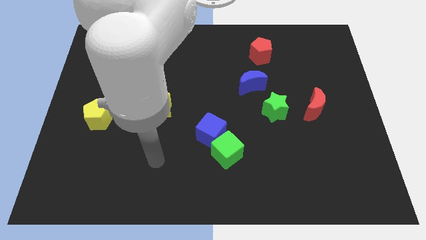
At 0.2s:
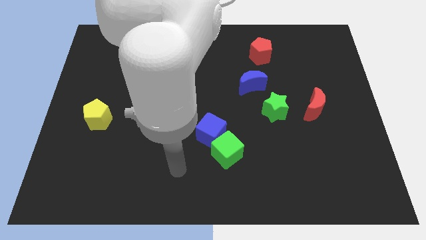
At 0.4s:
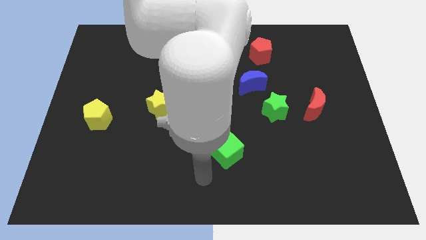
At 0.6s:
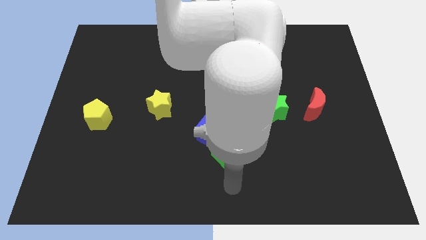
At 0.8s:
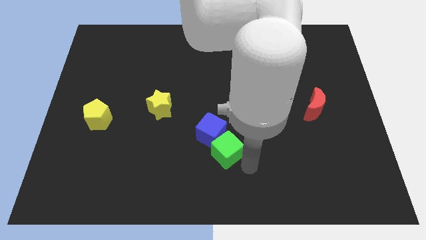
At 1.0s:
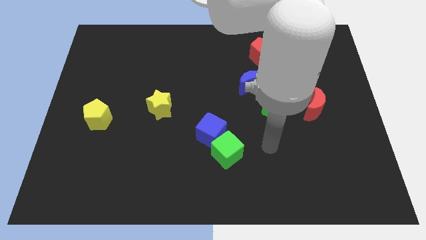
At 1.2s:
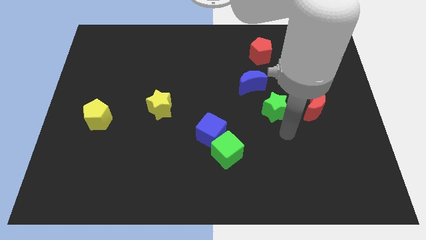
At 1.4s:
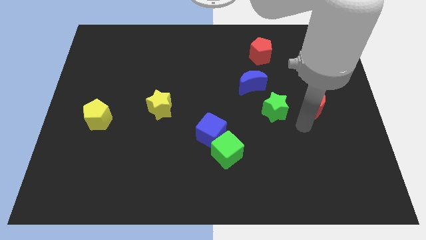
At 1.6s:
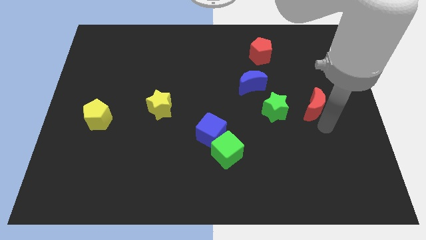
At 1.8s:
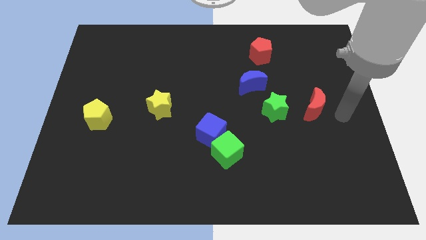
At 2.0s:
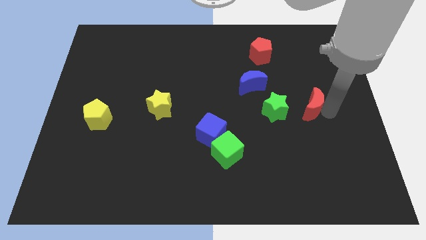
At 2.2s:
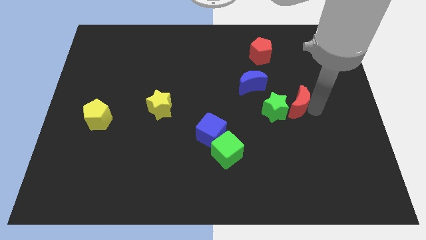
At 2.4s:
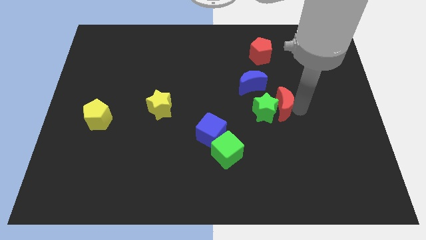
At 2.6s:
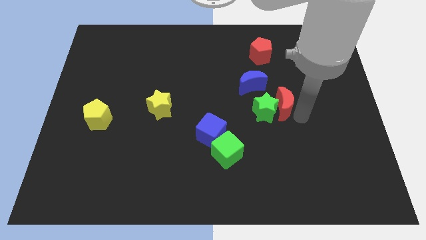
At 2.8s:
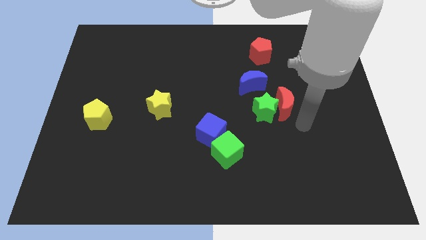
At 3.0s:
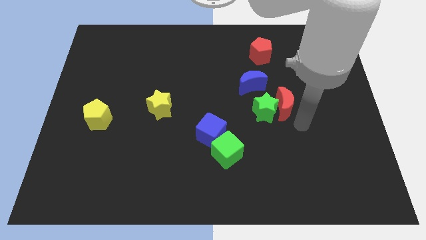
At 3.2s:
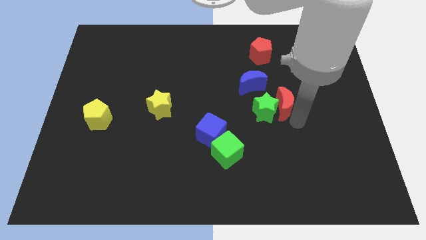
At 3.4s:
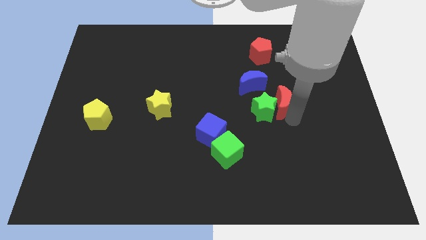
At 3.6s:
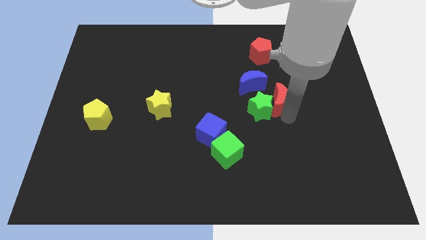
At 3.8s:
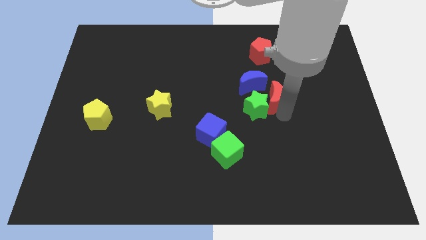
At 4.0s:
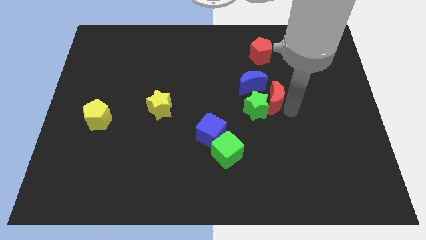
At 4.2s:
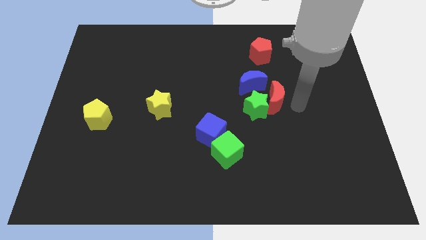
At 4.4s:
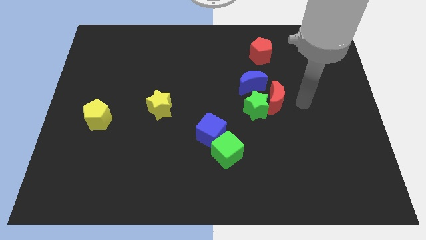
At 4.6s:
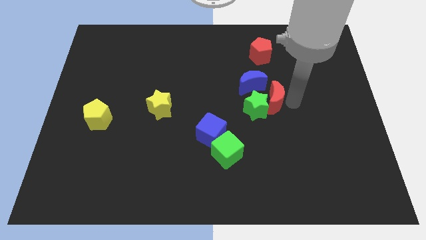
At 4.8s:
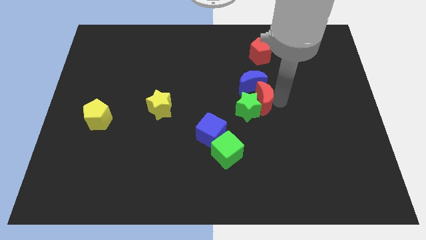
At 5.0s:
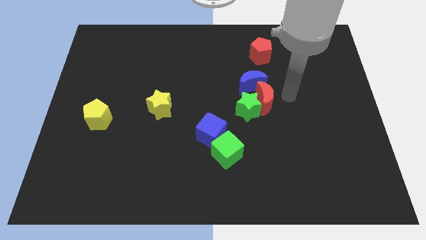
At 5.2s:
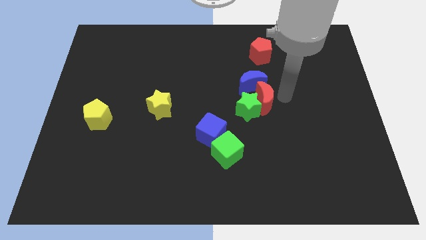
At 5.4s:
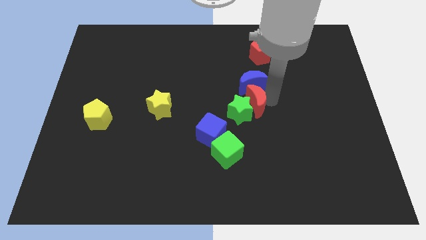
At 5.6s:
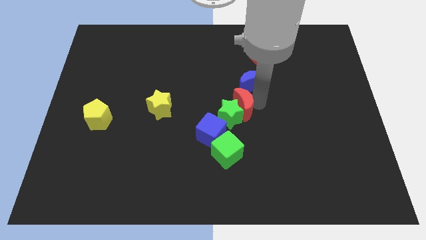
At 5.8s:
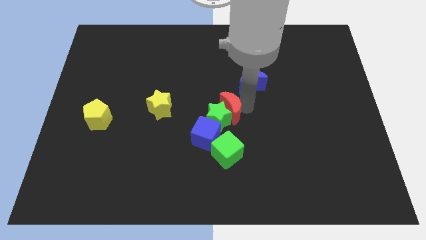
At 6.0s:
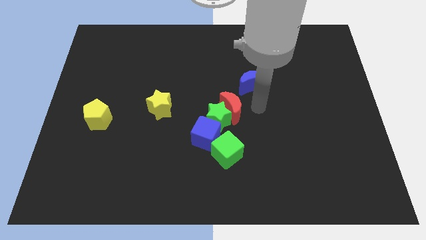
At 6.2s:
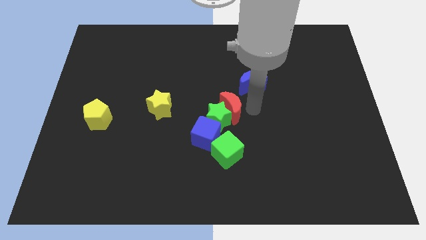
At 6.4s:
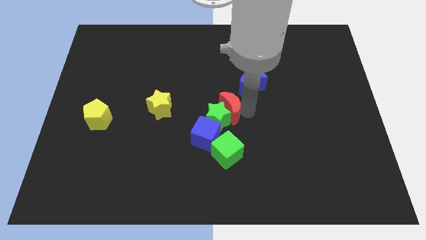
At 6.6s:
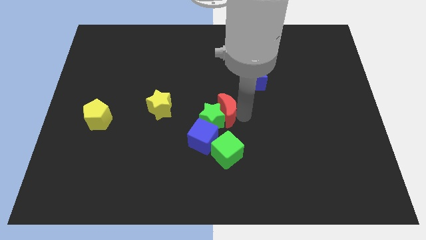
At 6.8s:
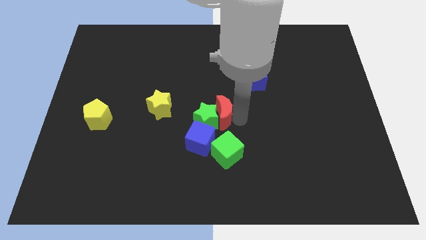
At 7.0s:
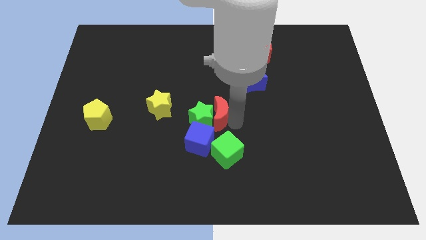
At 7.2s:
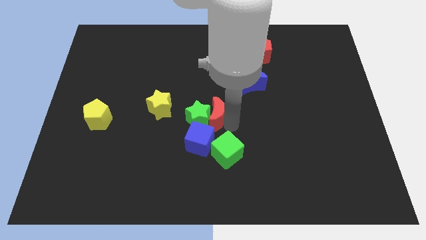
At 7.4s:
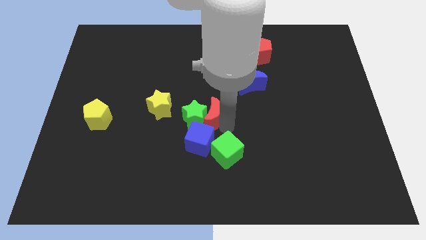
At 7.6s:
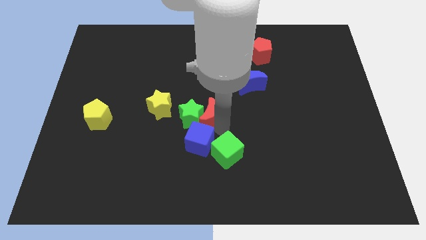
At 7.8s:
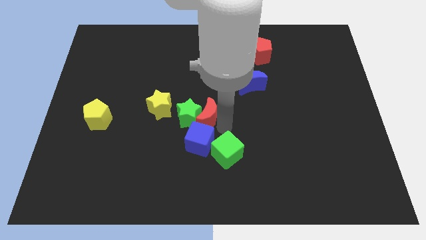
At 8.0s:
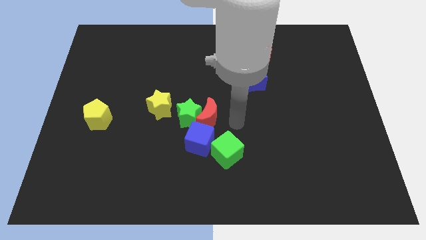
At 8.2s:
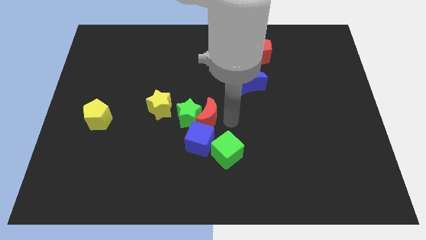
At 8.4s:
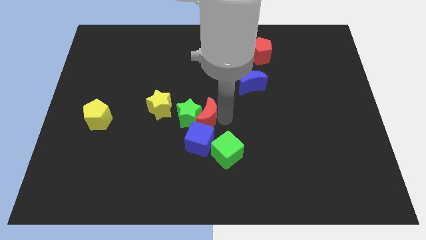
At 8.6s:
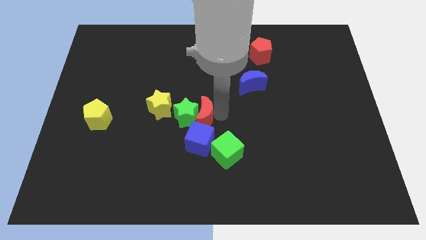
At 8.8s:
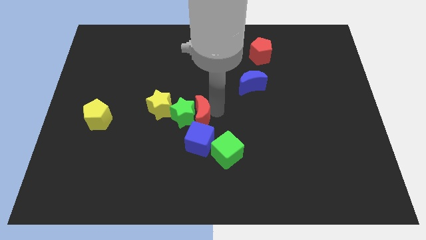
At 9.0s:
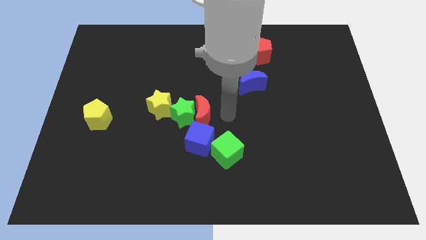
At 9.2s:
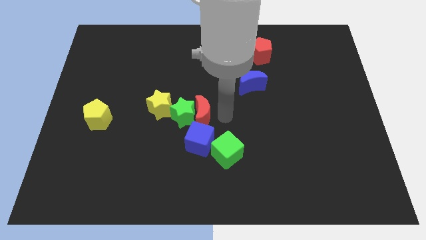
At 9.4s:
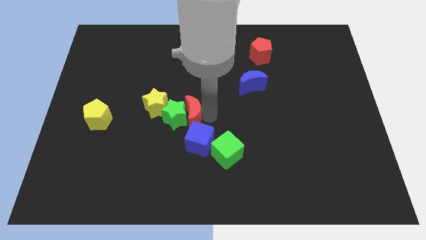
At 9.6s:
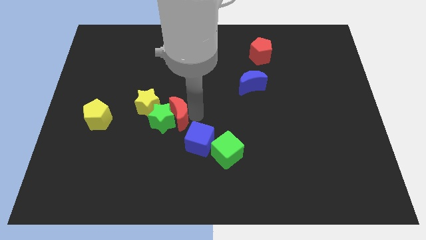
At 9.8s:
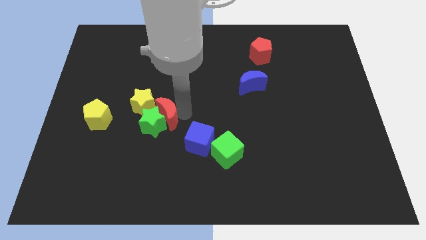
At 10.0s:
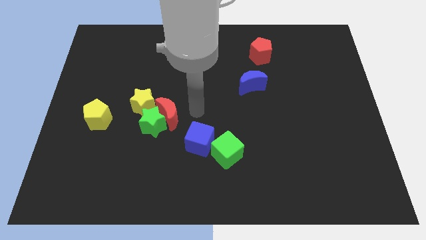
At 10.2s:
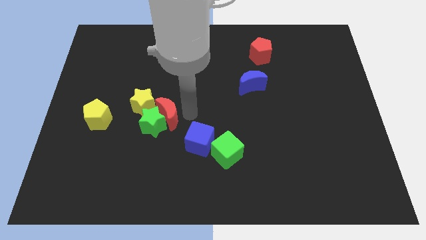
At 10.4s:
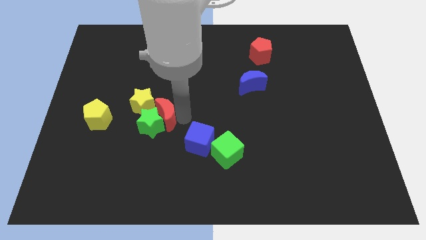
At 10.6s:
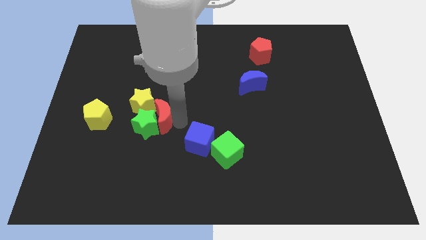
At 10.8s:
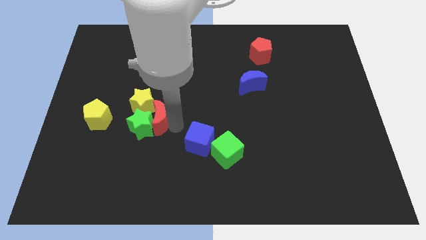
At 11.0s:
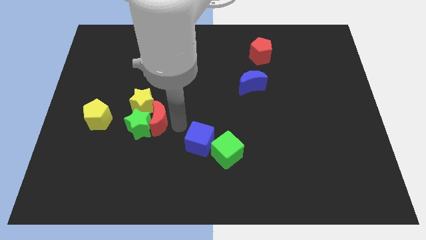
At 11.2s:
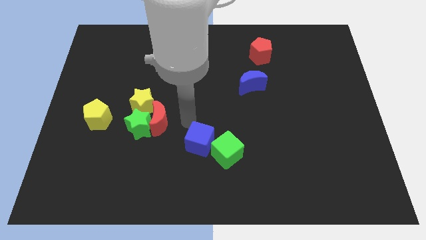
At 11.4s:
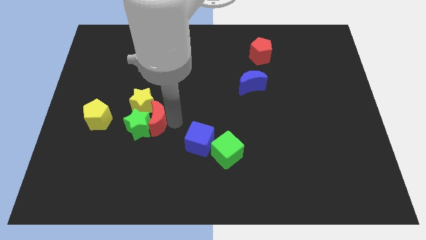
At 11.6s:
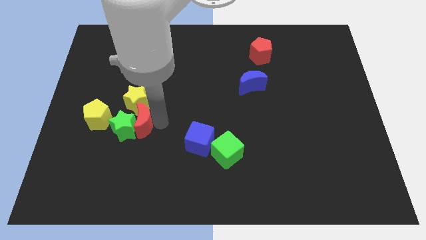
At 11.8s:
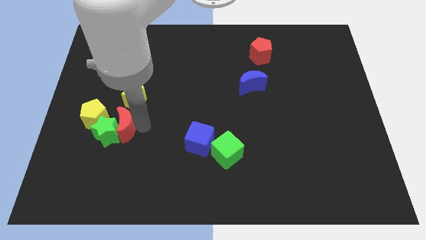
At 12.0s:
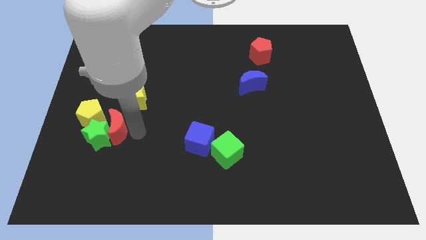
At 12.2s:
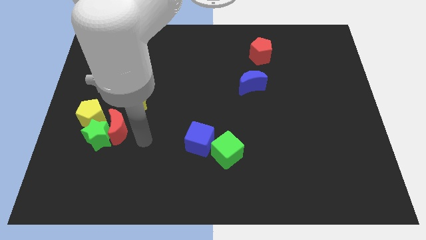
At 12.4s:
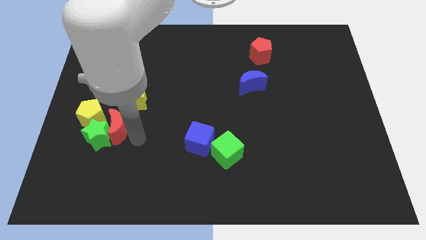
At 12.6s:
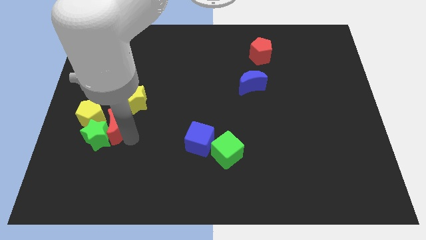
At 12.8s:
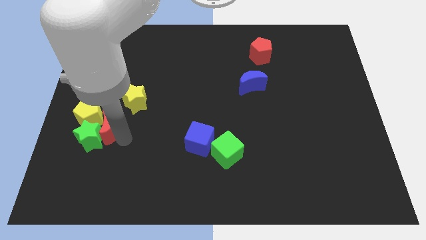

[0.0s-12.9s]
put the red moon next to the yellow pentagon

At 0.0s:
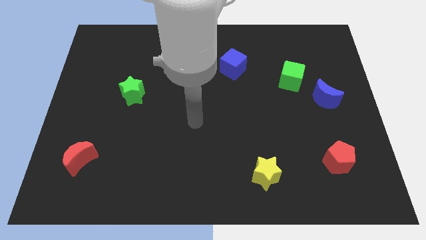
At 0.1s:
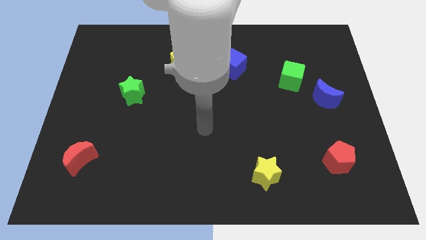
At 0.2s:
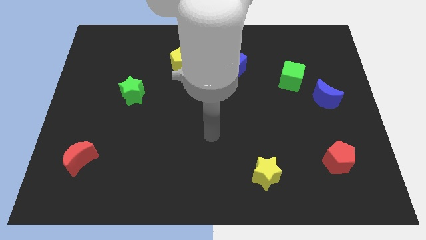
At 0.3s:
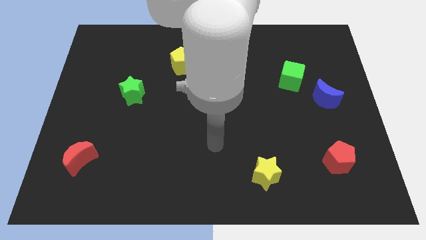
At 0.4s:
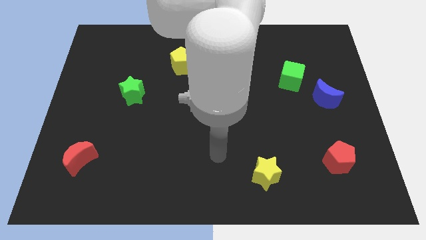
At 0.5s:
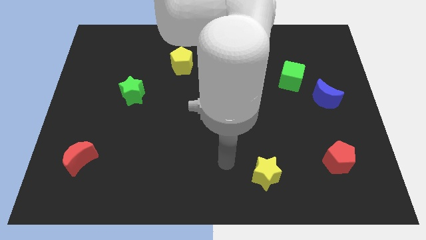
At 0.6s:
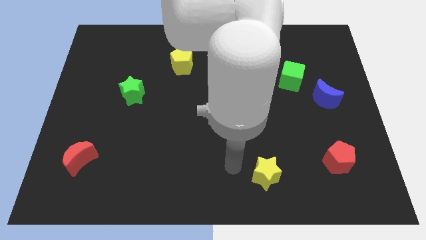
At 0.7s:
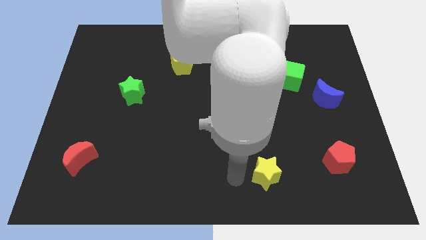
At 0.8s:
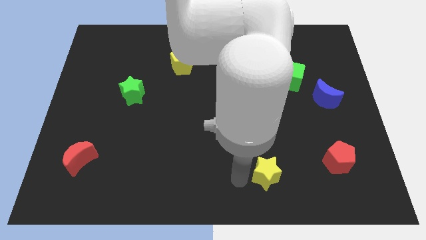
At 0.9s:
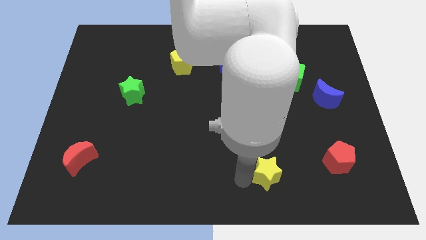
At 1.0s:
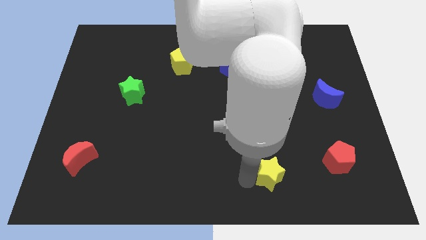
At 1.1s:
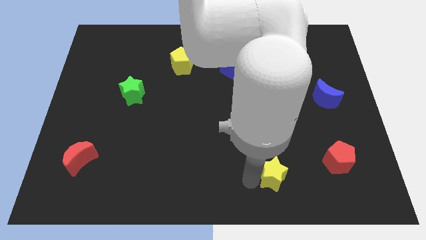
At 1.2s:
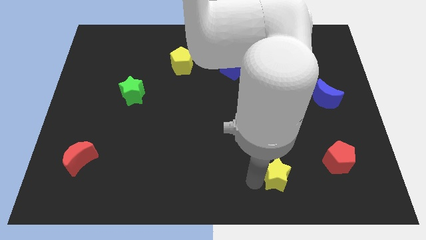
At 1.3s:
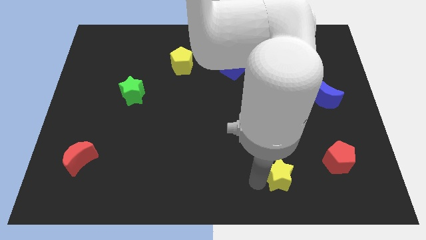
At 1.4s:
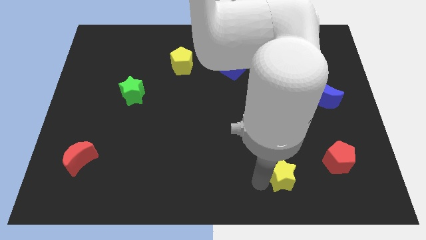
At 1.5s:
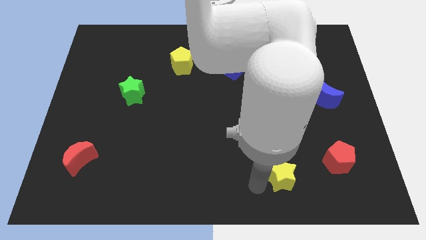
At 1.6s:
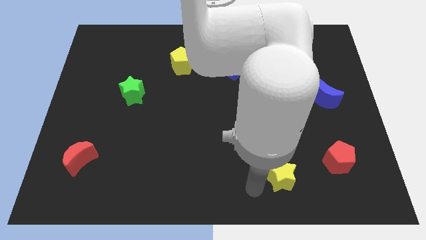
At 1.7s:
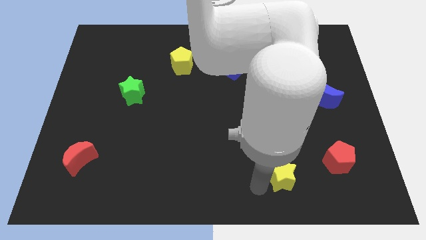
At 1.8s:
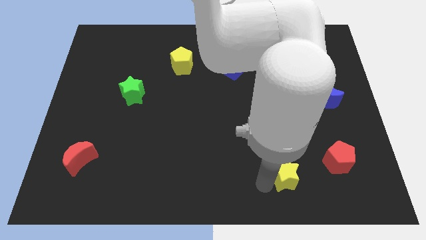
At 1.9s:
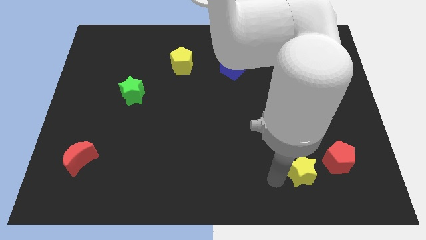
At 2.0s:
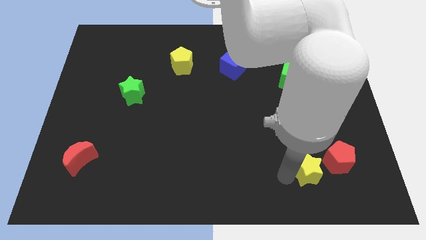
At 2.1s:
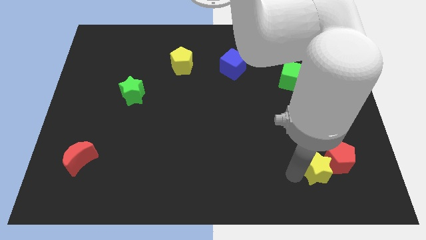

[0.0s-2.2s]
push the yellow star towards the red pentagon
